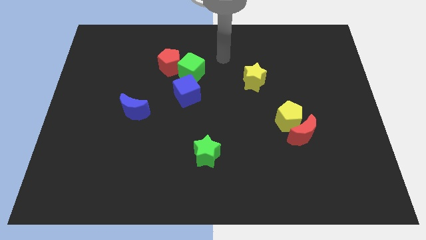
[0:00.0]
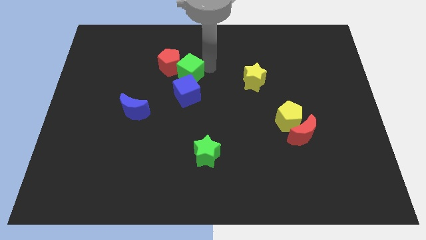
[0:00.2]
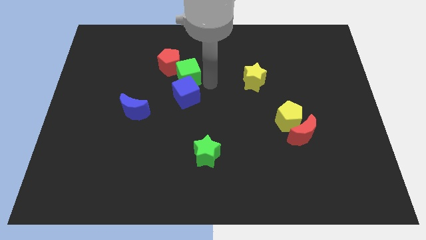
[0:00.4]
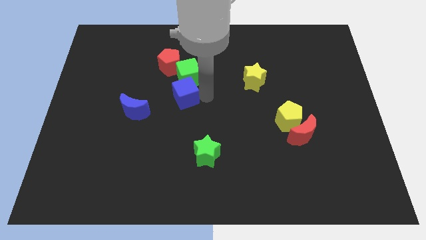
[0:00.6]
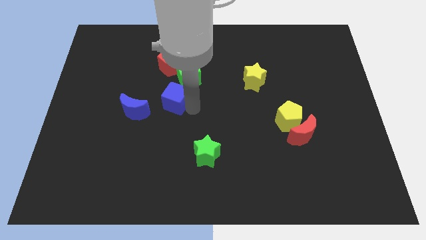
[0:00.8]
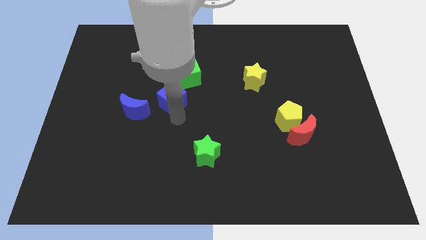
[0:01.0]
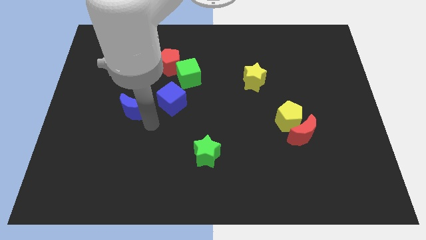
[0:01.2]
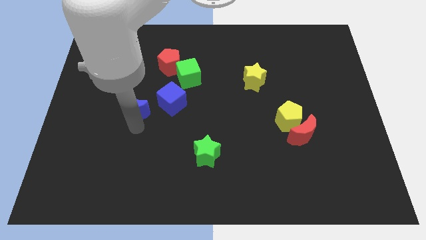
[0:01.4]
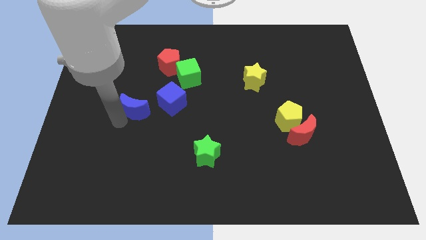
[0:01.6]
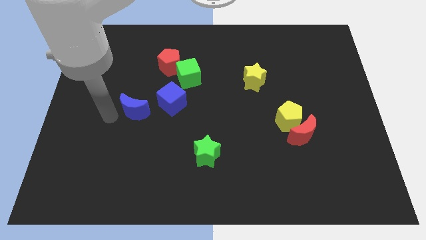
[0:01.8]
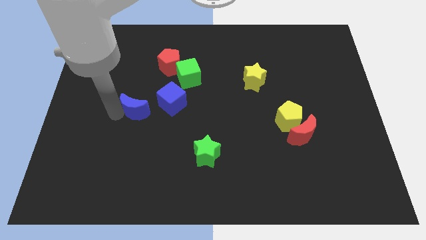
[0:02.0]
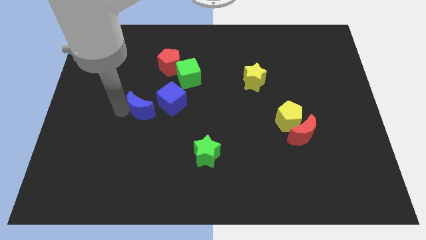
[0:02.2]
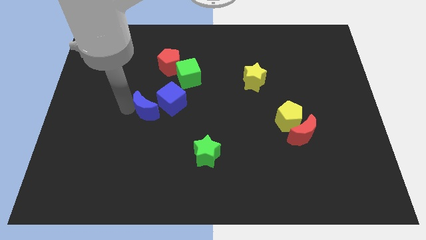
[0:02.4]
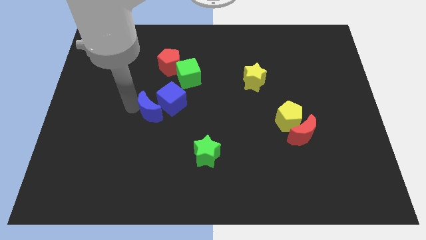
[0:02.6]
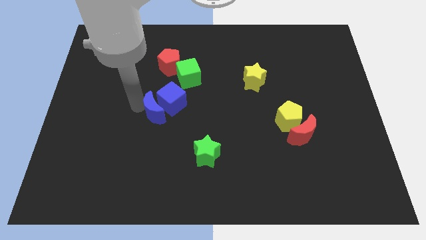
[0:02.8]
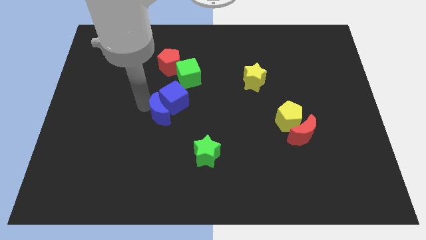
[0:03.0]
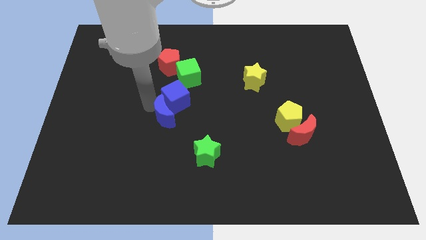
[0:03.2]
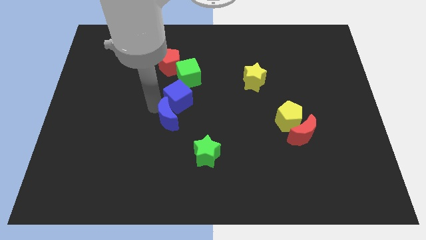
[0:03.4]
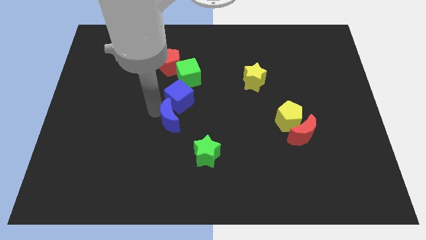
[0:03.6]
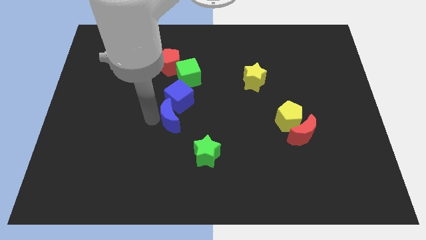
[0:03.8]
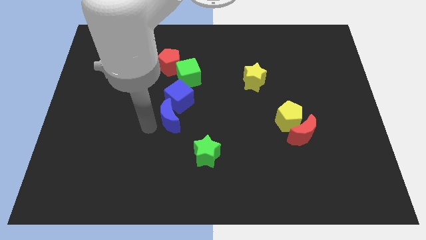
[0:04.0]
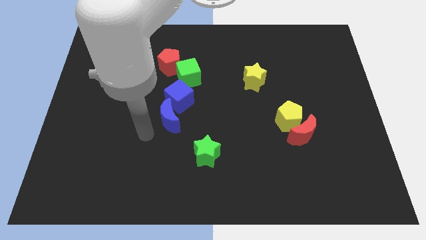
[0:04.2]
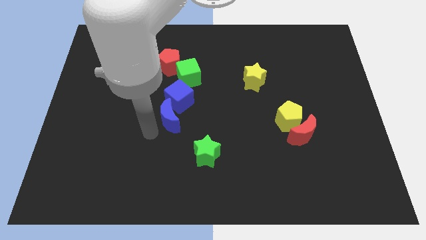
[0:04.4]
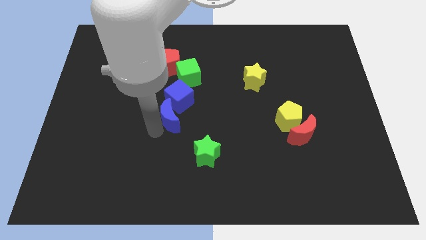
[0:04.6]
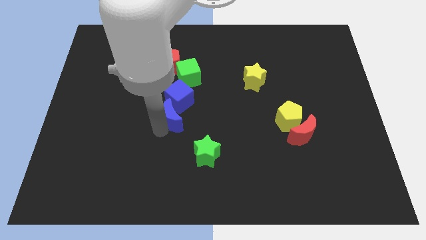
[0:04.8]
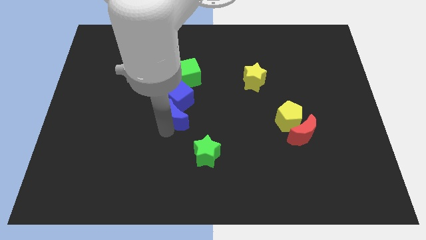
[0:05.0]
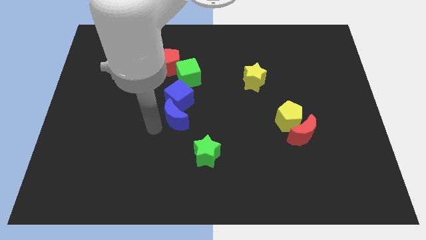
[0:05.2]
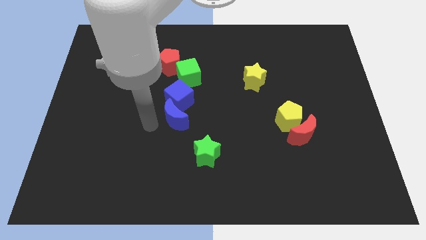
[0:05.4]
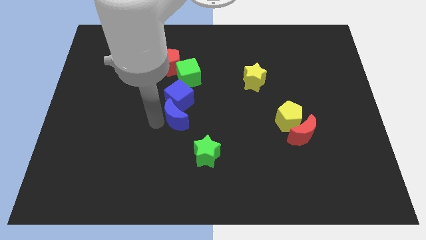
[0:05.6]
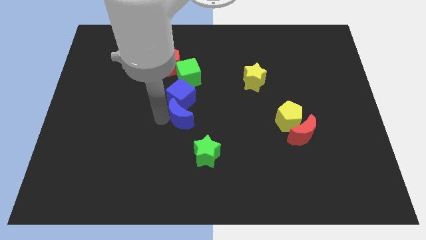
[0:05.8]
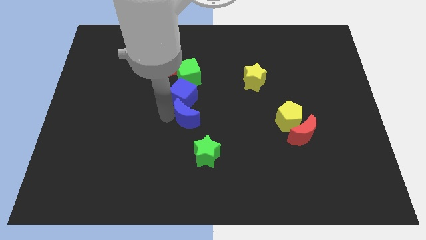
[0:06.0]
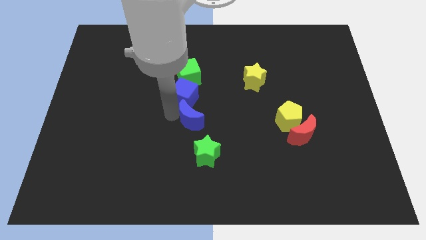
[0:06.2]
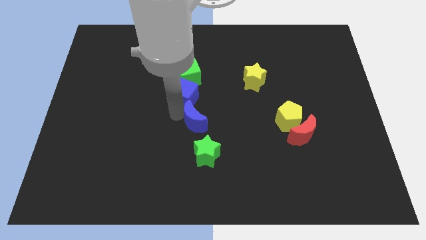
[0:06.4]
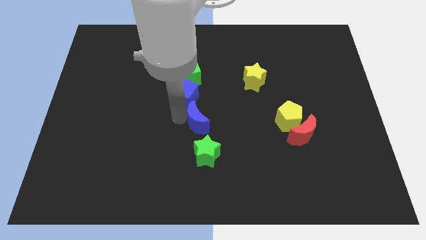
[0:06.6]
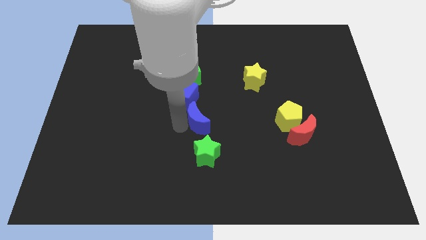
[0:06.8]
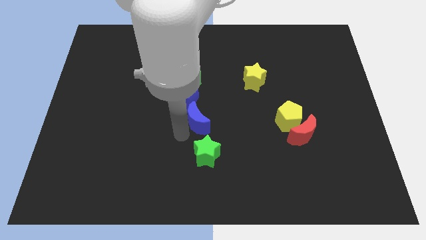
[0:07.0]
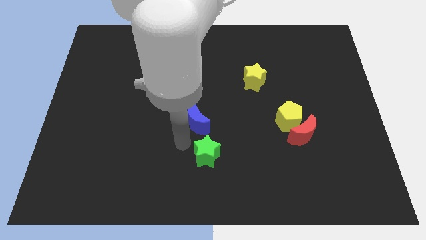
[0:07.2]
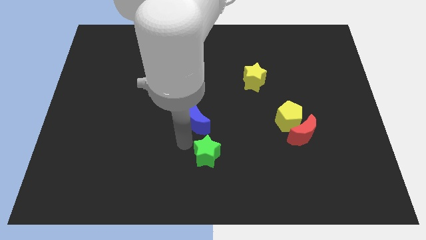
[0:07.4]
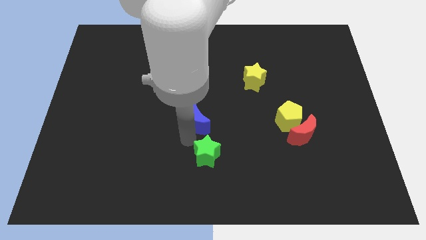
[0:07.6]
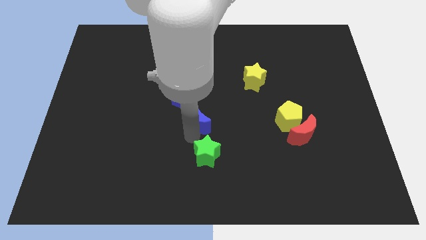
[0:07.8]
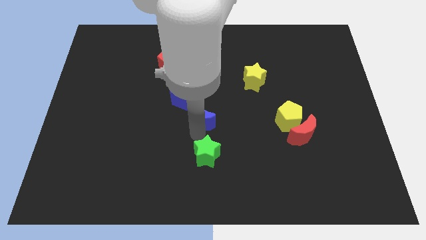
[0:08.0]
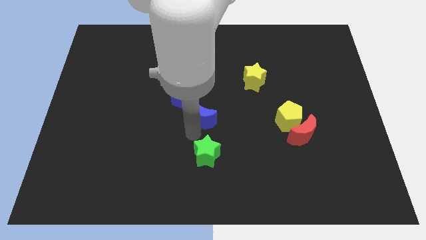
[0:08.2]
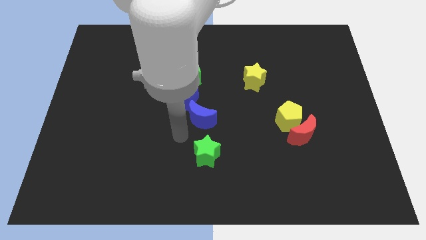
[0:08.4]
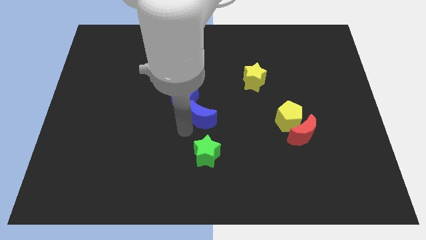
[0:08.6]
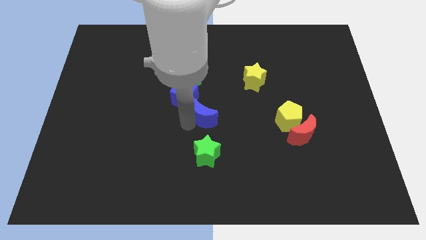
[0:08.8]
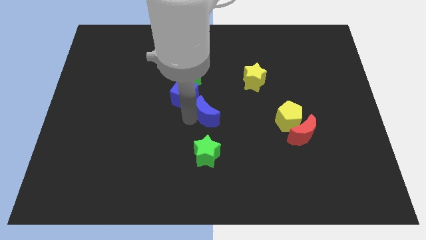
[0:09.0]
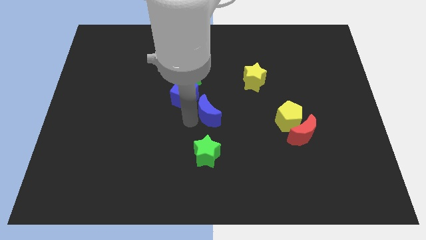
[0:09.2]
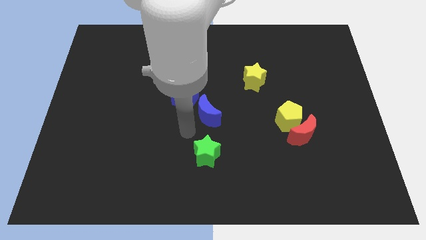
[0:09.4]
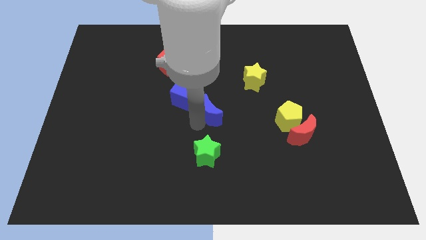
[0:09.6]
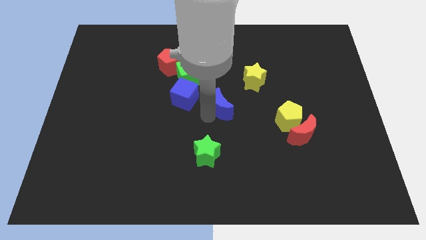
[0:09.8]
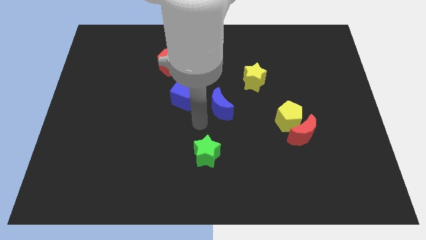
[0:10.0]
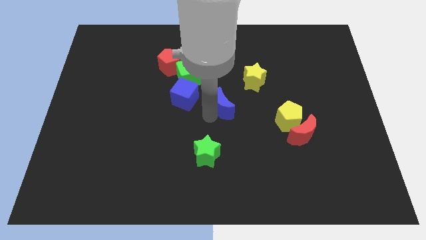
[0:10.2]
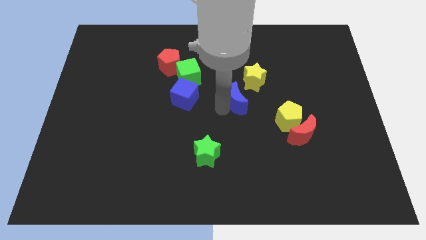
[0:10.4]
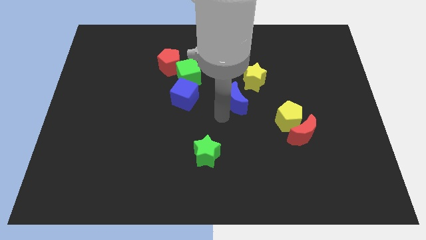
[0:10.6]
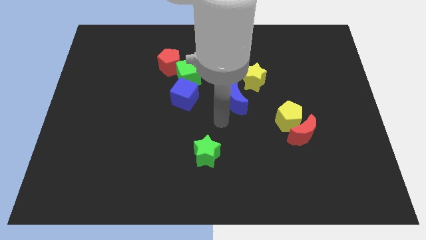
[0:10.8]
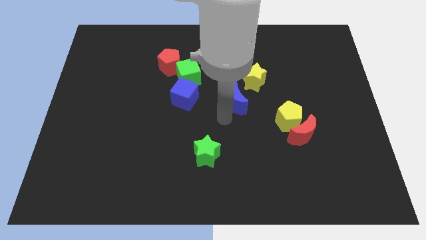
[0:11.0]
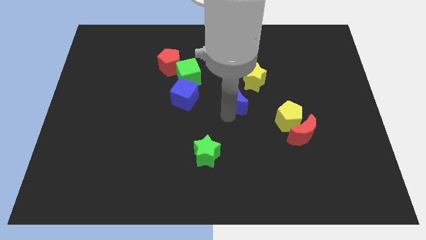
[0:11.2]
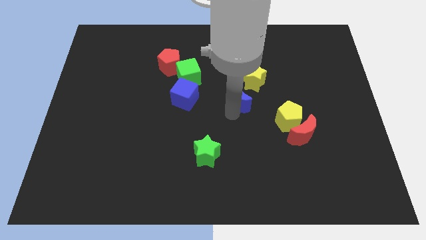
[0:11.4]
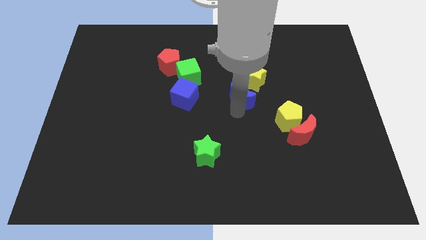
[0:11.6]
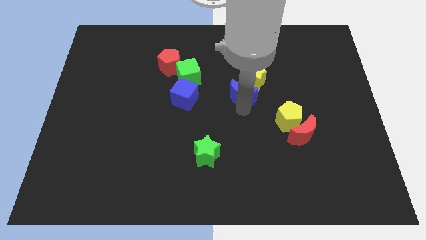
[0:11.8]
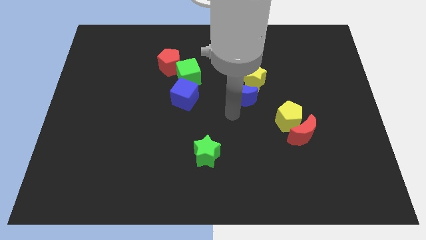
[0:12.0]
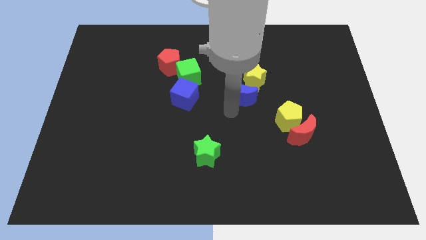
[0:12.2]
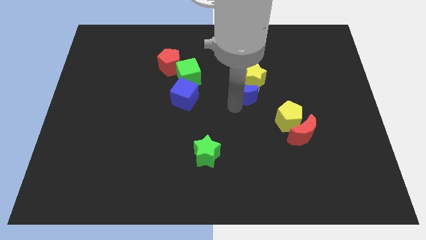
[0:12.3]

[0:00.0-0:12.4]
put the blue moon close to the yellow star

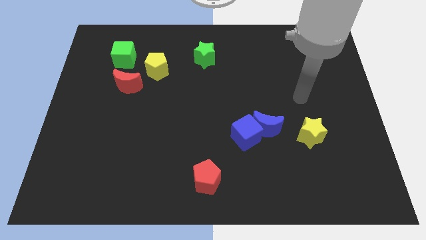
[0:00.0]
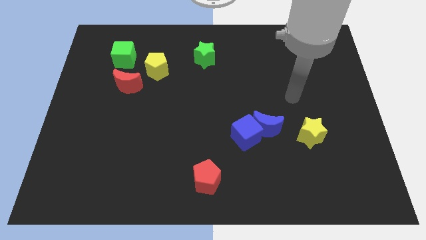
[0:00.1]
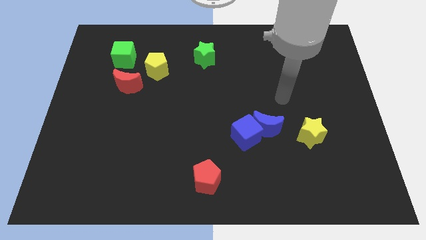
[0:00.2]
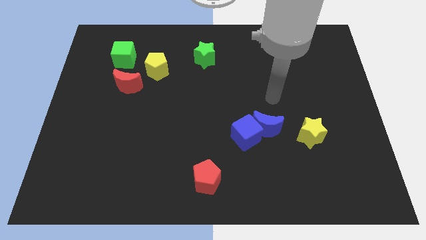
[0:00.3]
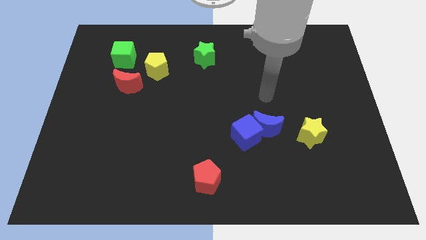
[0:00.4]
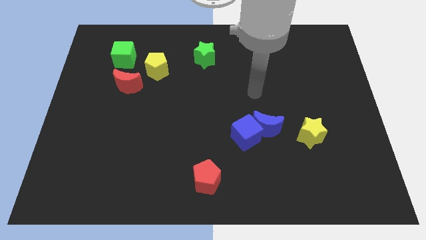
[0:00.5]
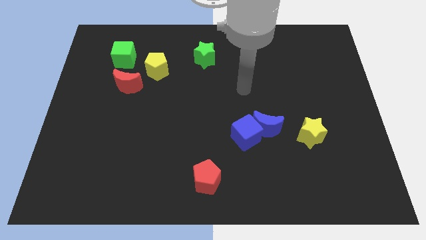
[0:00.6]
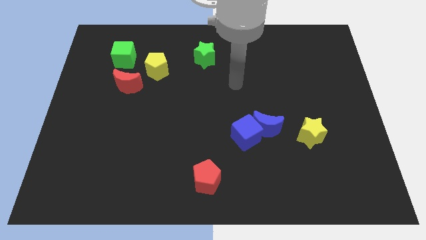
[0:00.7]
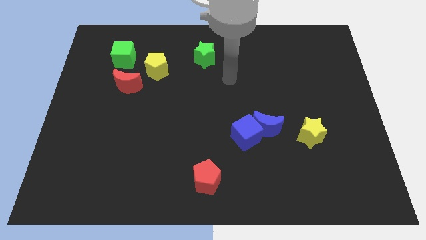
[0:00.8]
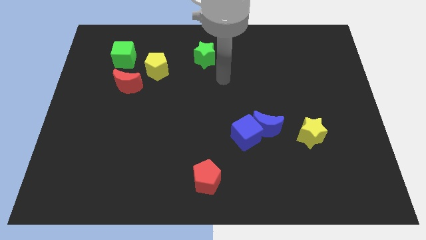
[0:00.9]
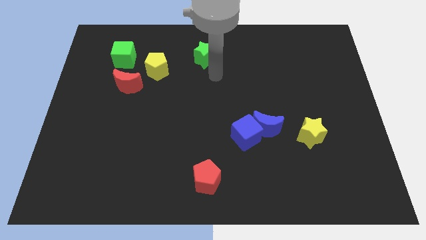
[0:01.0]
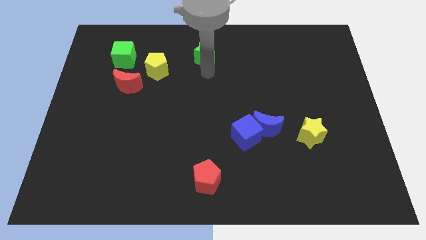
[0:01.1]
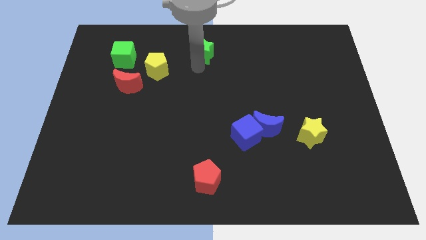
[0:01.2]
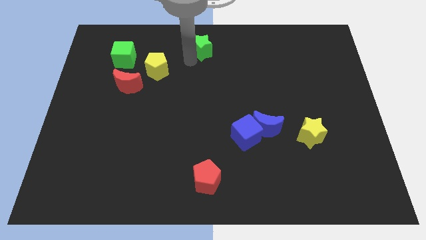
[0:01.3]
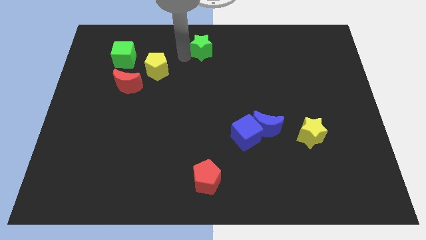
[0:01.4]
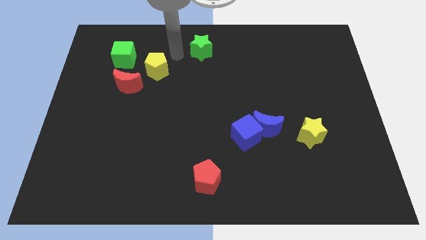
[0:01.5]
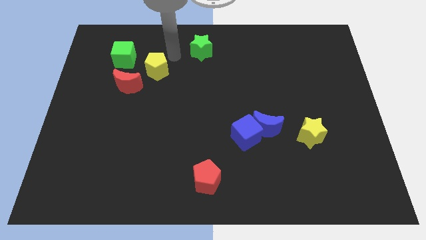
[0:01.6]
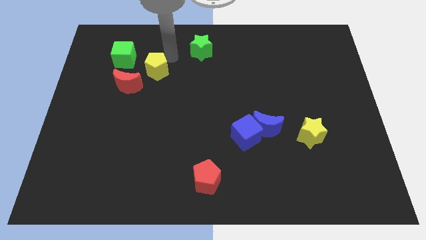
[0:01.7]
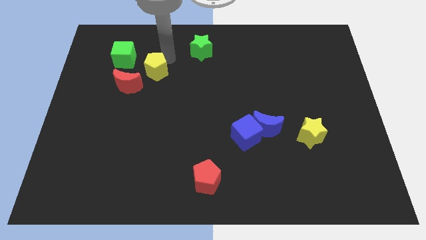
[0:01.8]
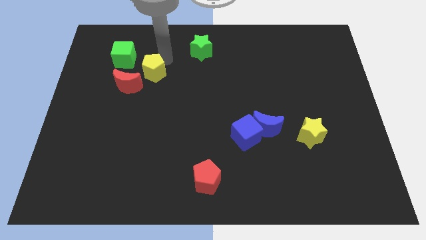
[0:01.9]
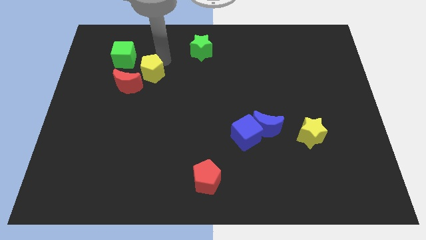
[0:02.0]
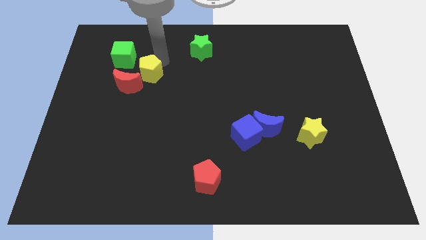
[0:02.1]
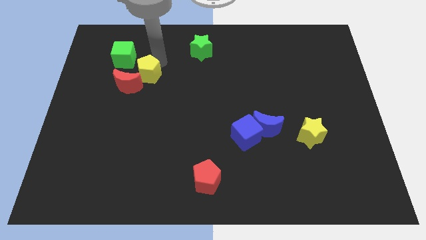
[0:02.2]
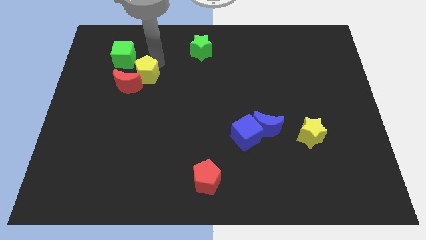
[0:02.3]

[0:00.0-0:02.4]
push the yellow pentagon next to the red moon
